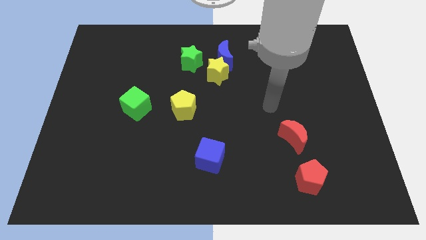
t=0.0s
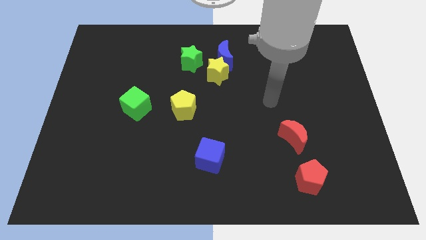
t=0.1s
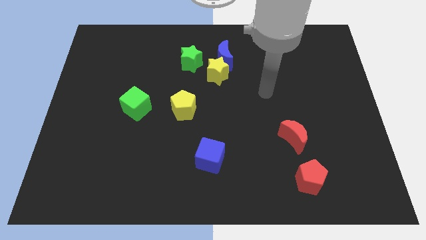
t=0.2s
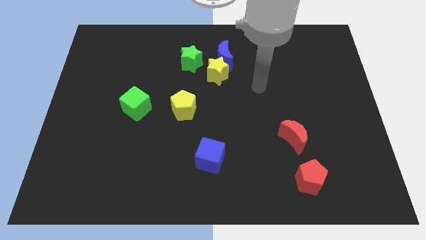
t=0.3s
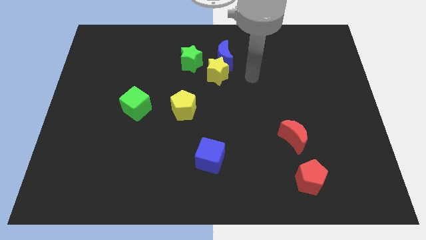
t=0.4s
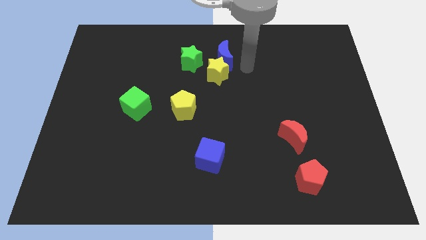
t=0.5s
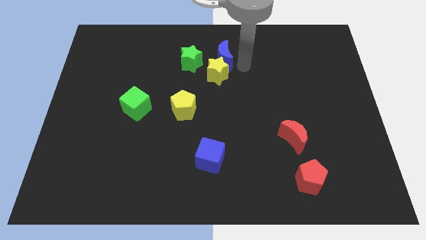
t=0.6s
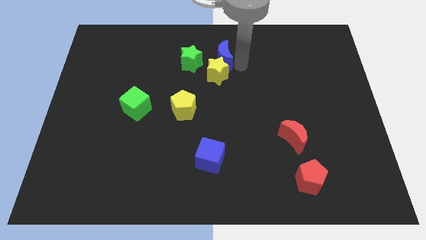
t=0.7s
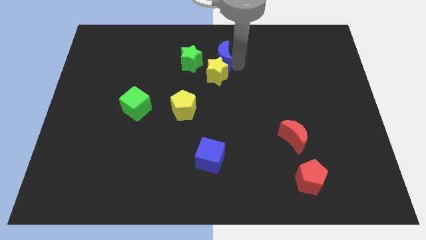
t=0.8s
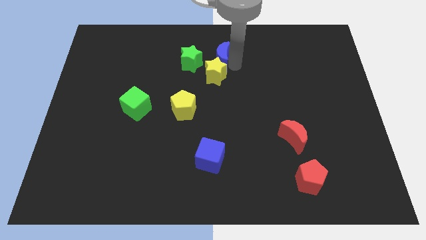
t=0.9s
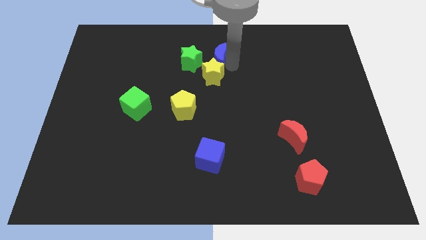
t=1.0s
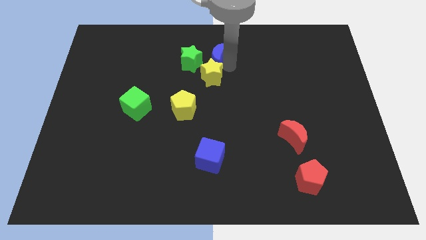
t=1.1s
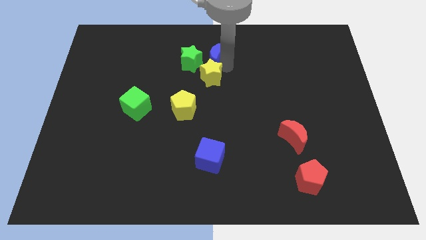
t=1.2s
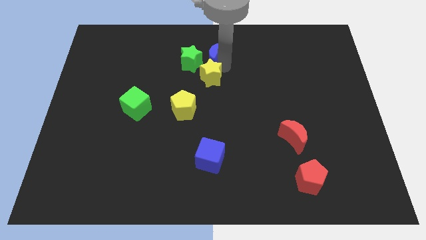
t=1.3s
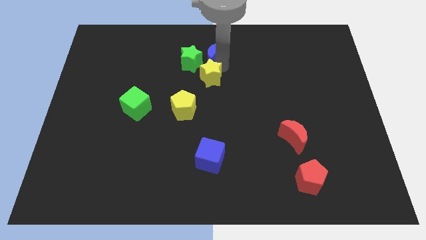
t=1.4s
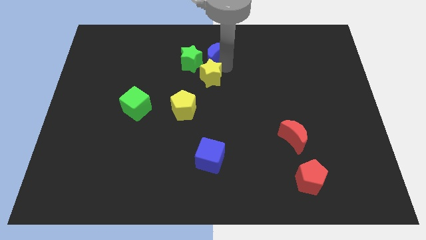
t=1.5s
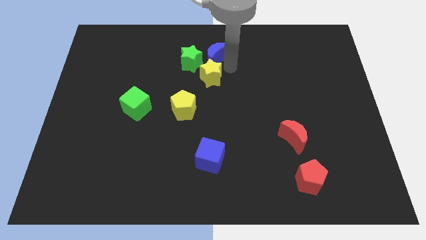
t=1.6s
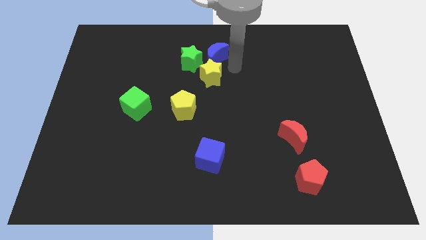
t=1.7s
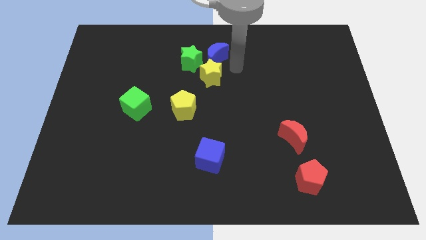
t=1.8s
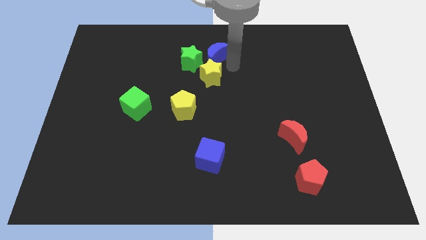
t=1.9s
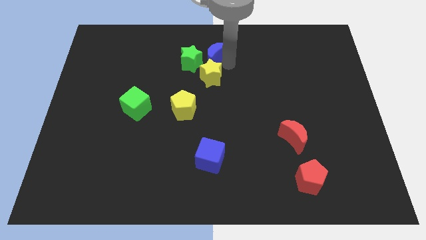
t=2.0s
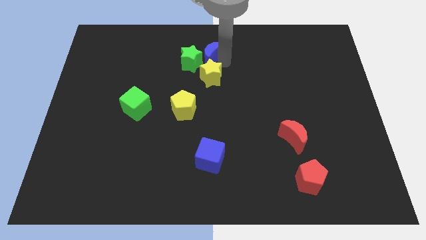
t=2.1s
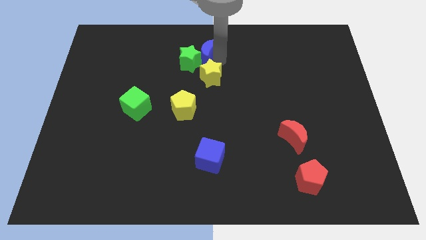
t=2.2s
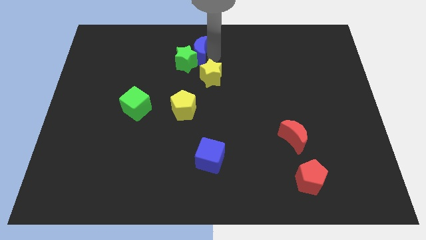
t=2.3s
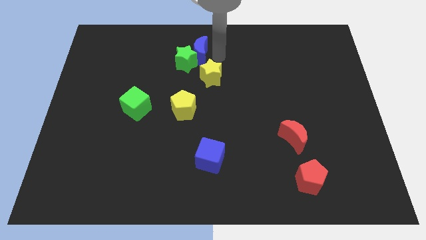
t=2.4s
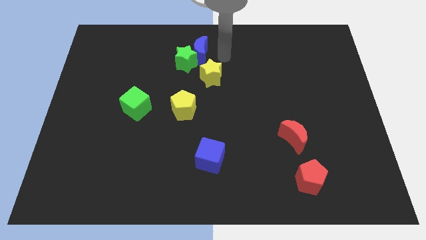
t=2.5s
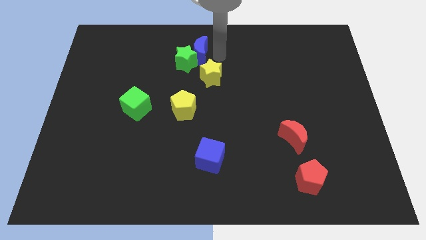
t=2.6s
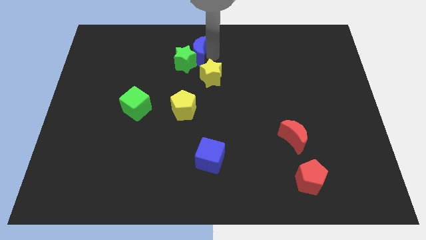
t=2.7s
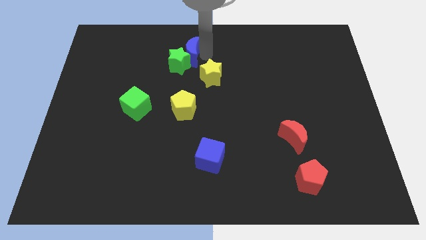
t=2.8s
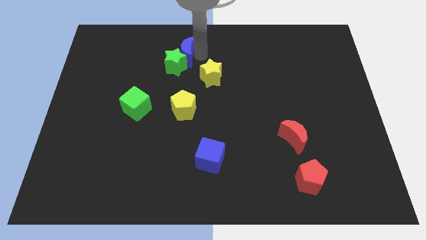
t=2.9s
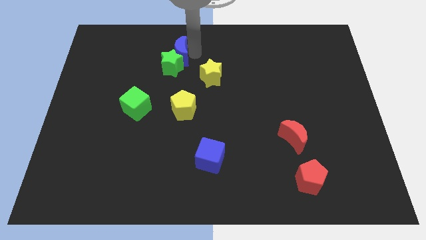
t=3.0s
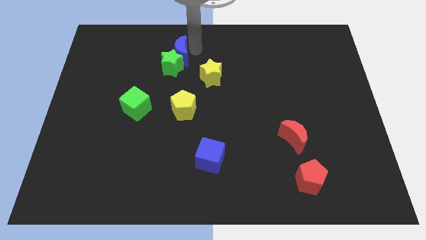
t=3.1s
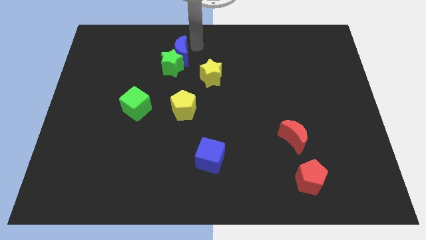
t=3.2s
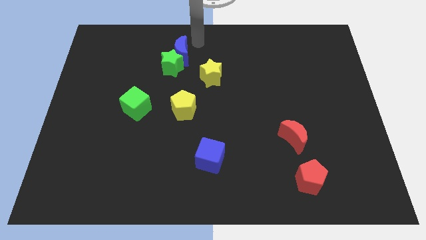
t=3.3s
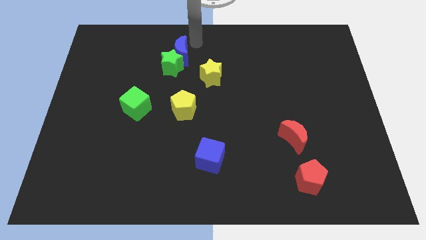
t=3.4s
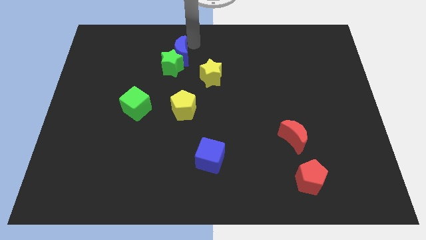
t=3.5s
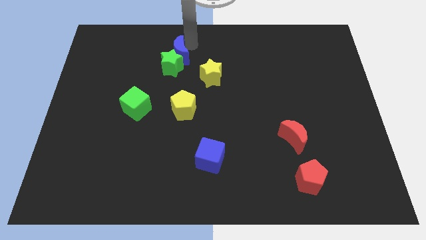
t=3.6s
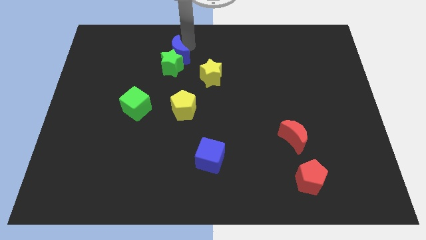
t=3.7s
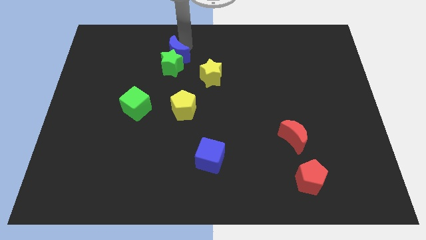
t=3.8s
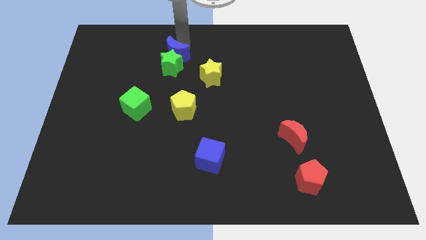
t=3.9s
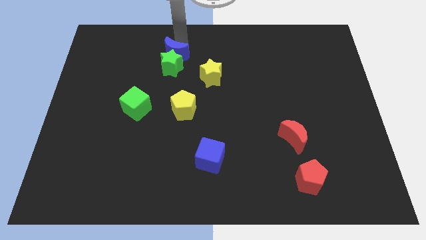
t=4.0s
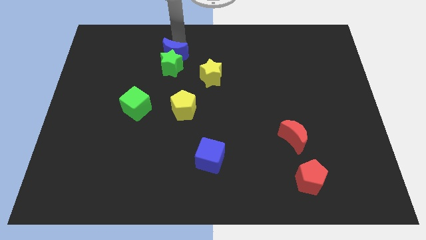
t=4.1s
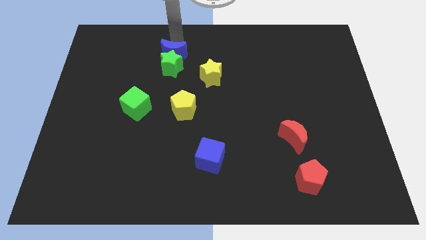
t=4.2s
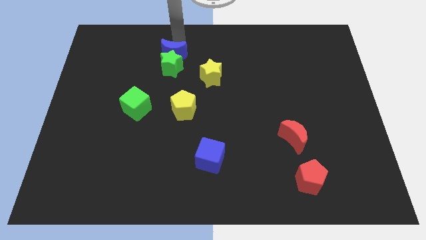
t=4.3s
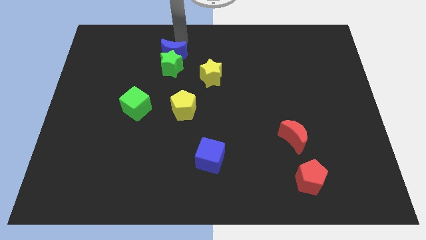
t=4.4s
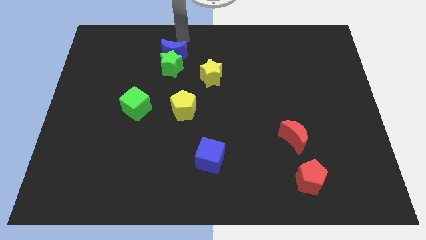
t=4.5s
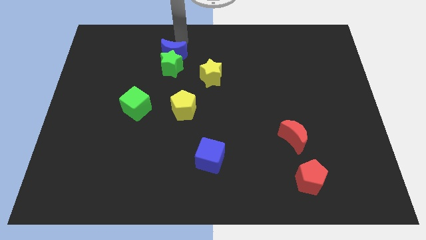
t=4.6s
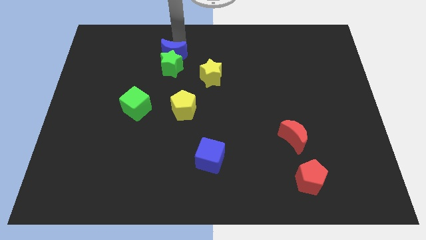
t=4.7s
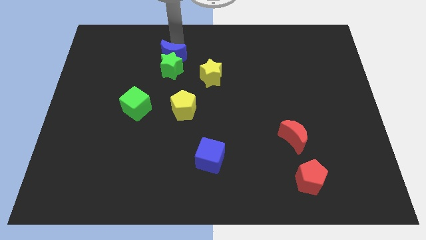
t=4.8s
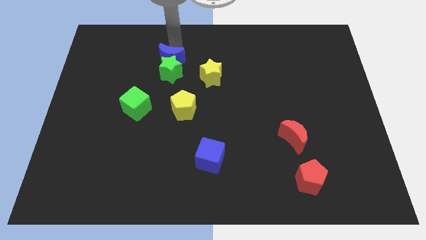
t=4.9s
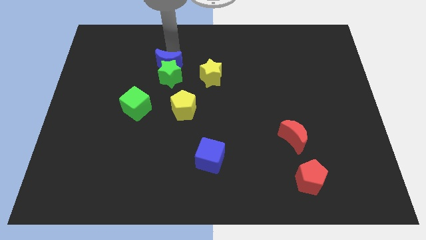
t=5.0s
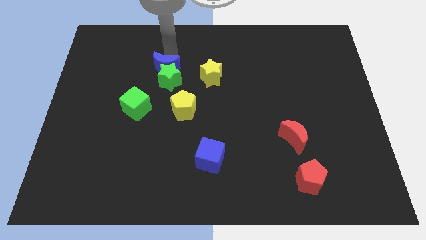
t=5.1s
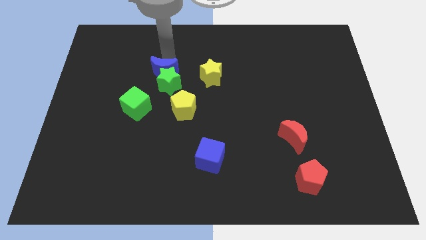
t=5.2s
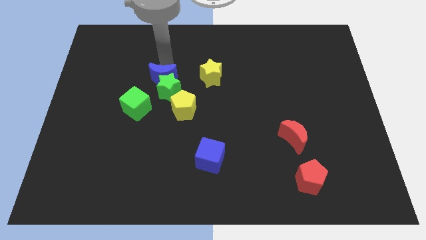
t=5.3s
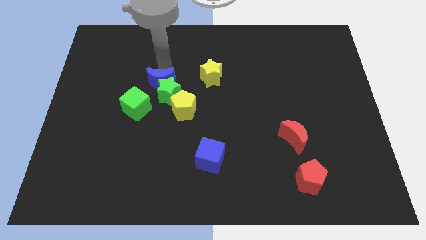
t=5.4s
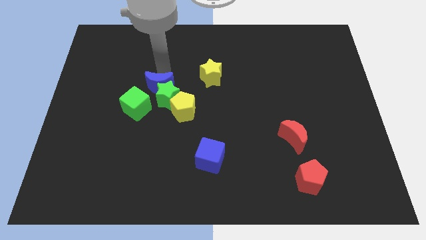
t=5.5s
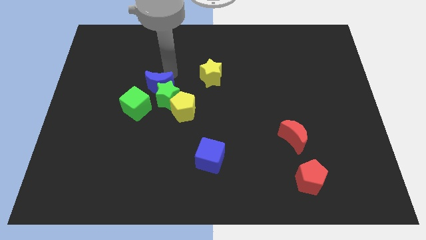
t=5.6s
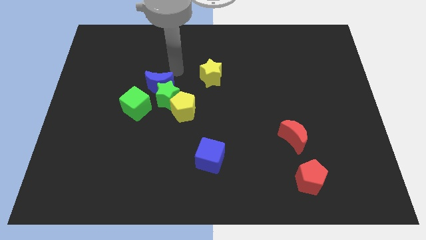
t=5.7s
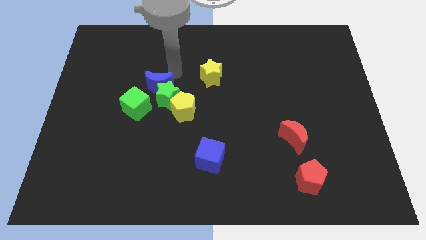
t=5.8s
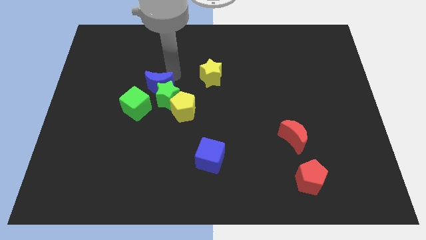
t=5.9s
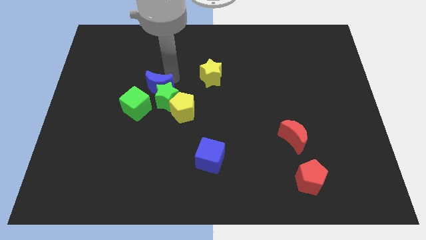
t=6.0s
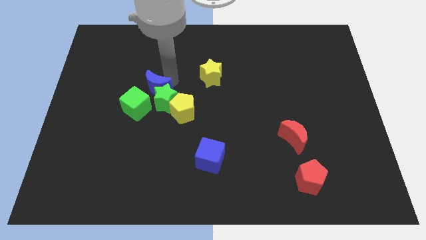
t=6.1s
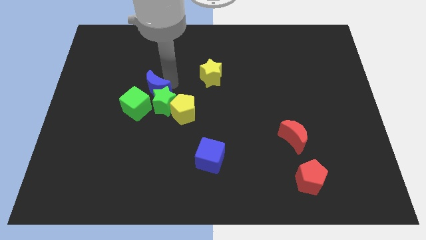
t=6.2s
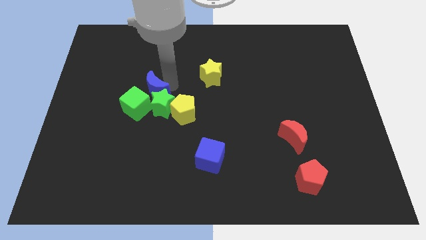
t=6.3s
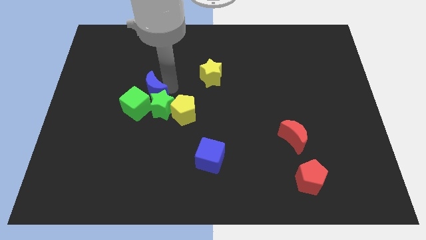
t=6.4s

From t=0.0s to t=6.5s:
slide the blue moon towards the green cube
